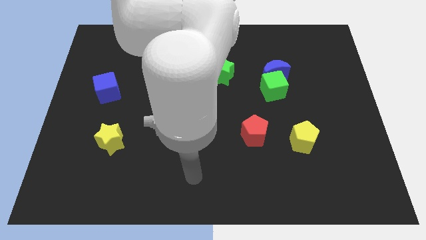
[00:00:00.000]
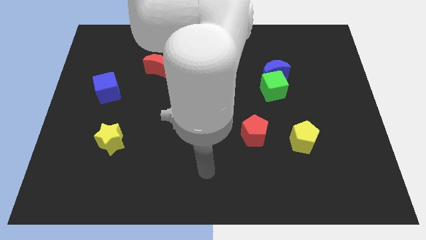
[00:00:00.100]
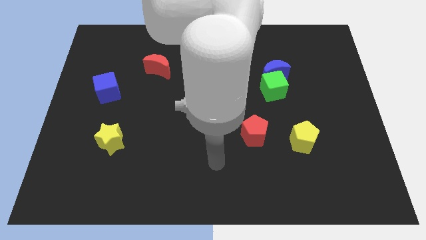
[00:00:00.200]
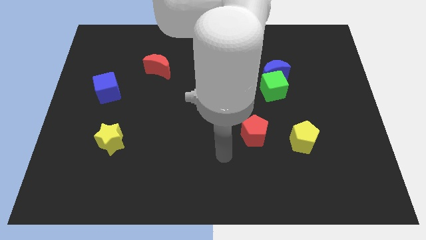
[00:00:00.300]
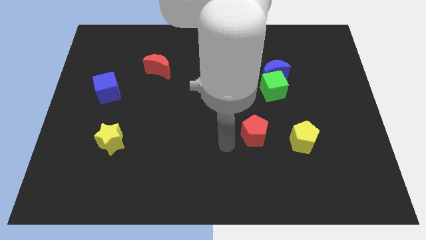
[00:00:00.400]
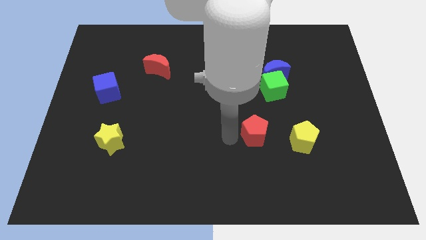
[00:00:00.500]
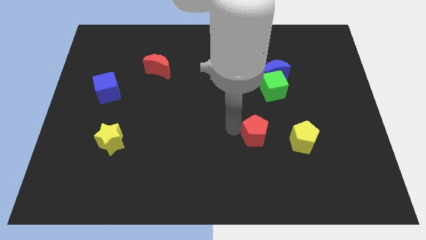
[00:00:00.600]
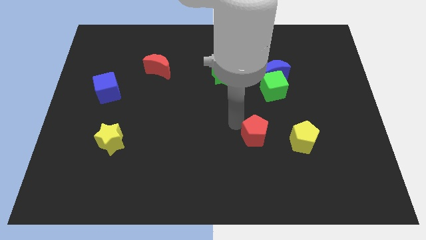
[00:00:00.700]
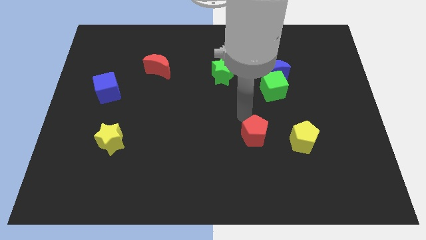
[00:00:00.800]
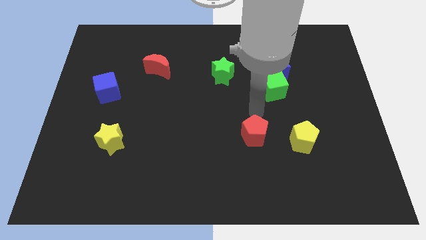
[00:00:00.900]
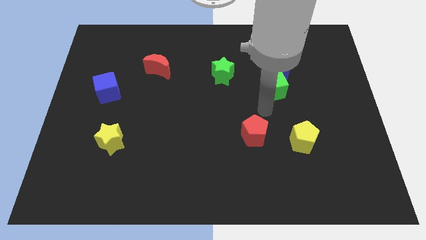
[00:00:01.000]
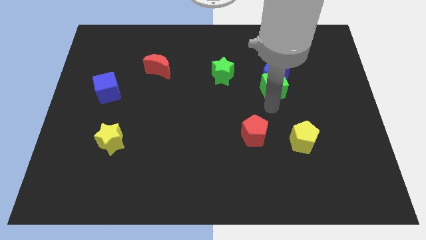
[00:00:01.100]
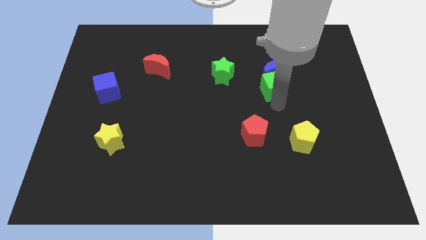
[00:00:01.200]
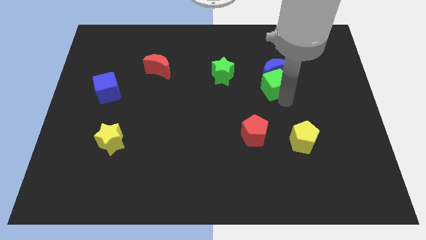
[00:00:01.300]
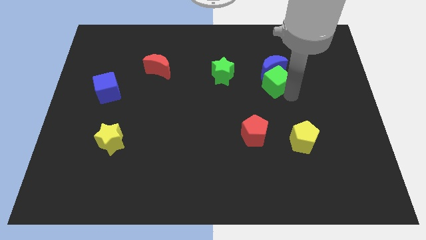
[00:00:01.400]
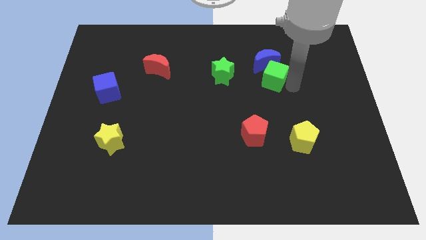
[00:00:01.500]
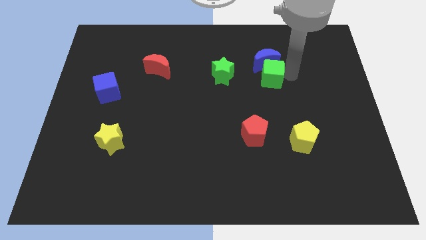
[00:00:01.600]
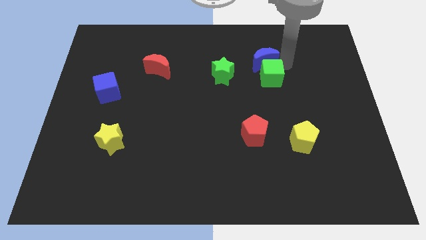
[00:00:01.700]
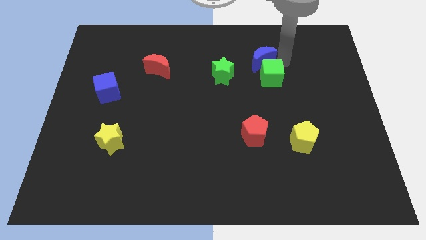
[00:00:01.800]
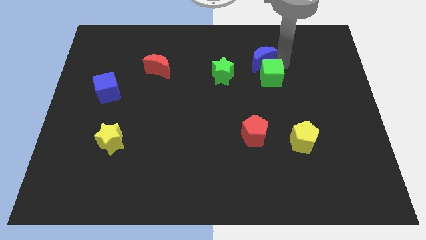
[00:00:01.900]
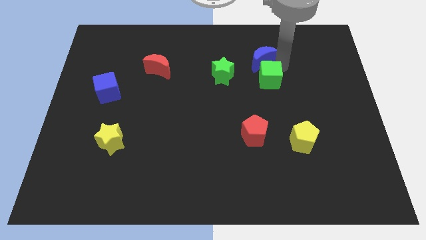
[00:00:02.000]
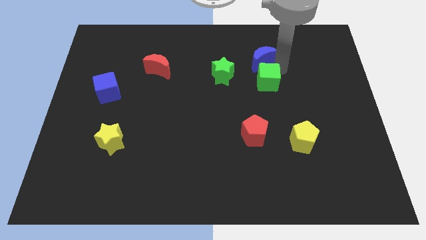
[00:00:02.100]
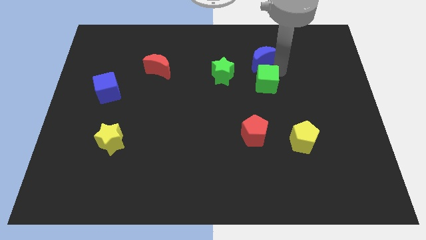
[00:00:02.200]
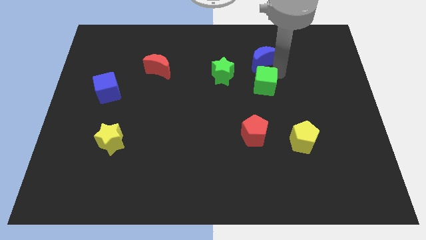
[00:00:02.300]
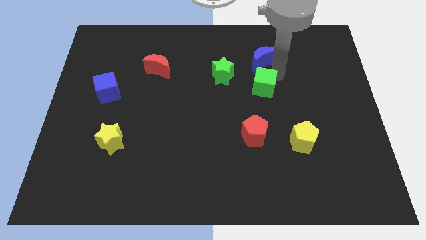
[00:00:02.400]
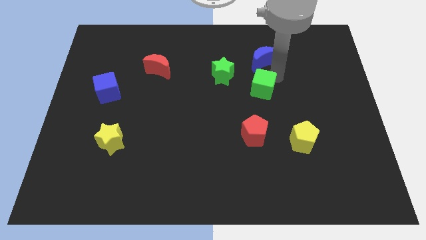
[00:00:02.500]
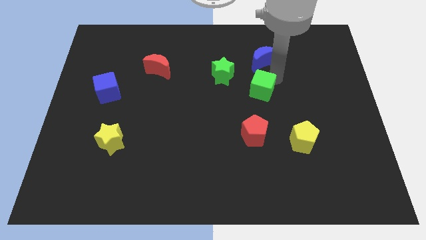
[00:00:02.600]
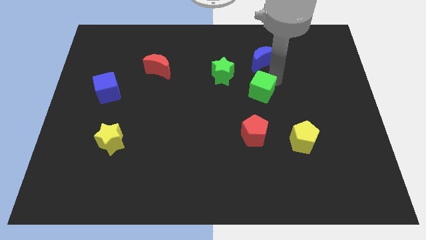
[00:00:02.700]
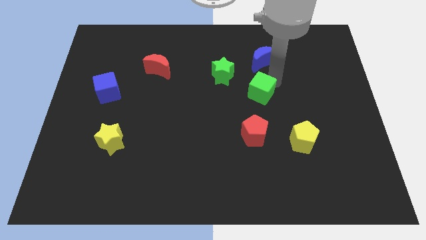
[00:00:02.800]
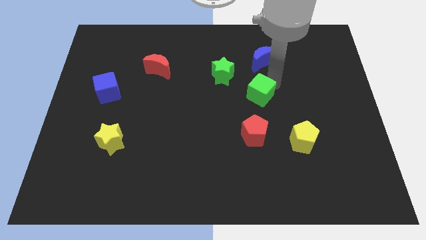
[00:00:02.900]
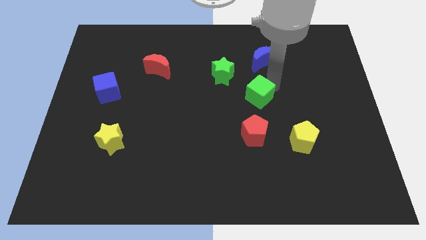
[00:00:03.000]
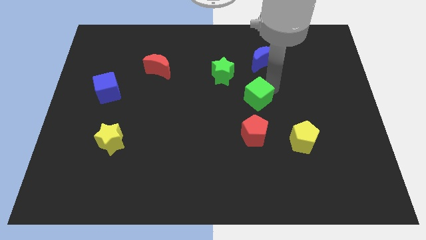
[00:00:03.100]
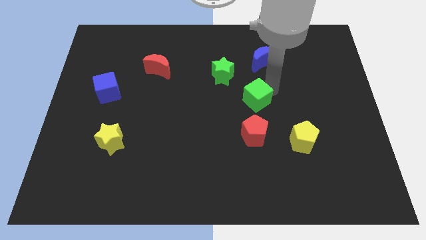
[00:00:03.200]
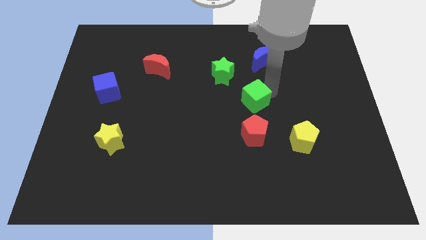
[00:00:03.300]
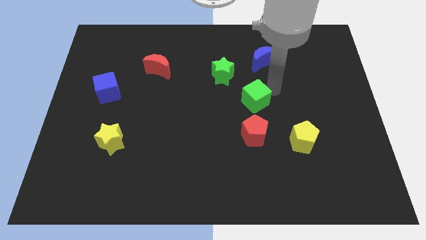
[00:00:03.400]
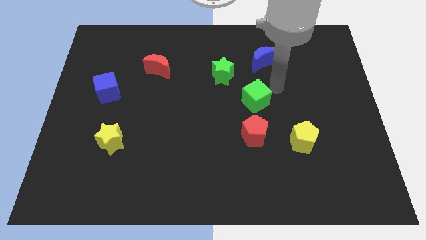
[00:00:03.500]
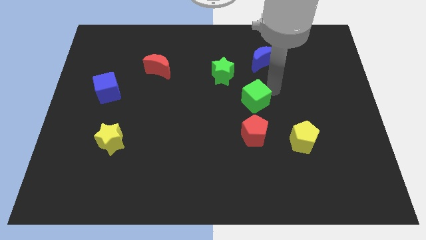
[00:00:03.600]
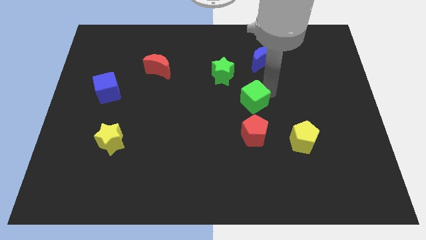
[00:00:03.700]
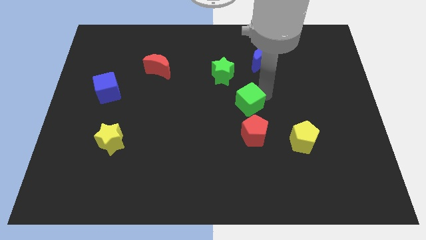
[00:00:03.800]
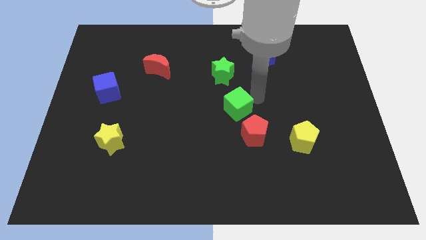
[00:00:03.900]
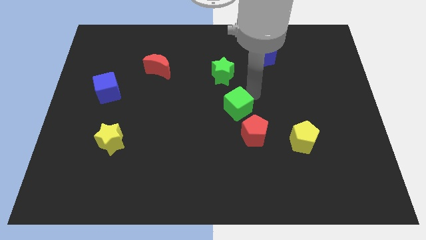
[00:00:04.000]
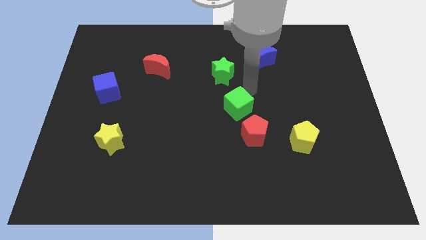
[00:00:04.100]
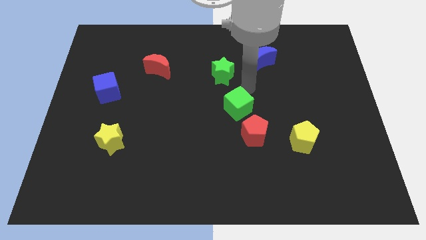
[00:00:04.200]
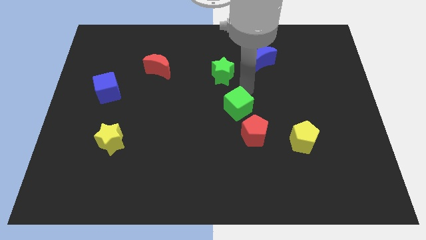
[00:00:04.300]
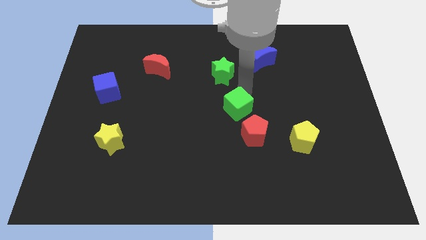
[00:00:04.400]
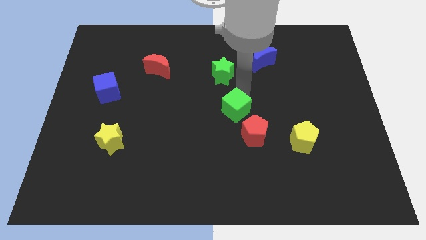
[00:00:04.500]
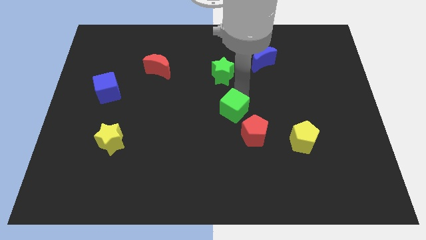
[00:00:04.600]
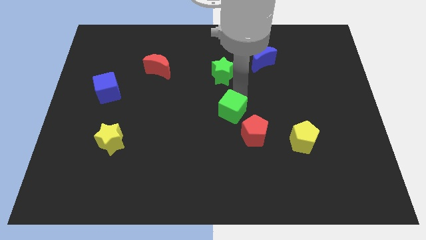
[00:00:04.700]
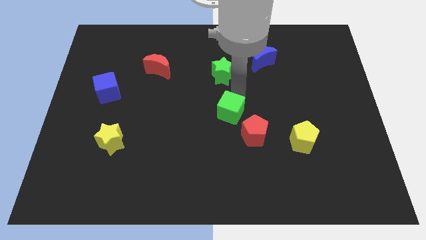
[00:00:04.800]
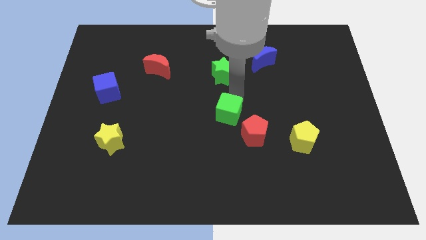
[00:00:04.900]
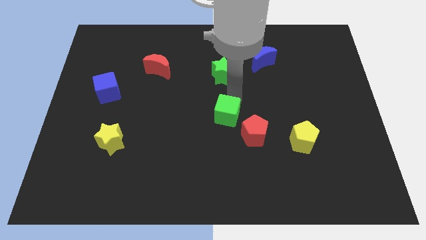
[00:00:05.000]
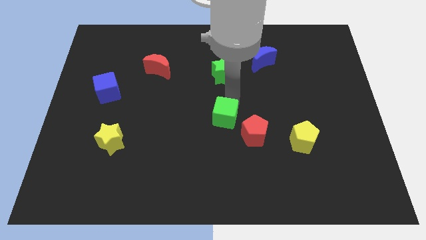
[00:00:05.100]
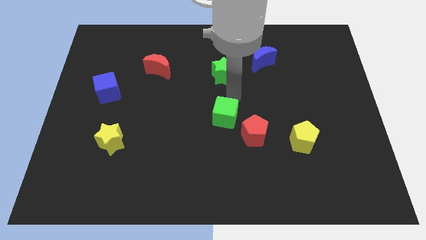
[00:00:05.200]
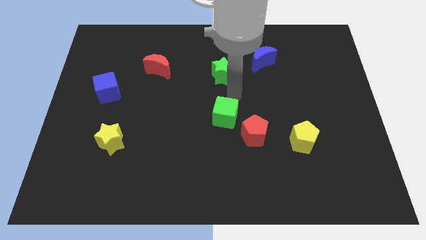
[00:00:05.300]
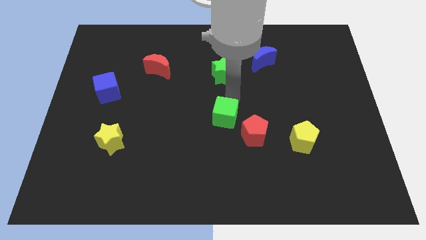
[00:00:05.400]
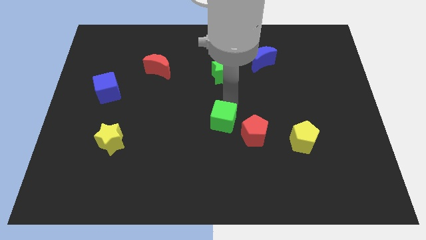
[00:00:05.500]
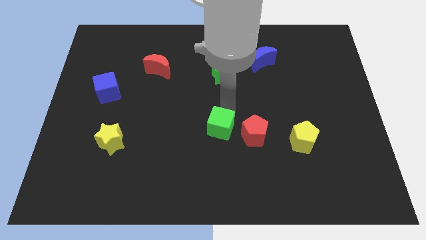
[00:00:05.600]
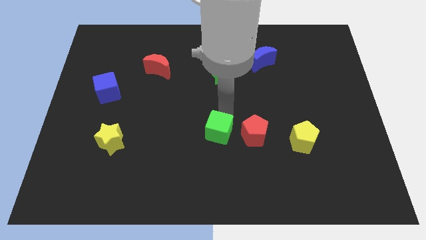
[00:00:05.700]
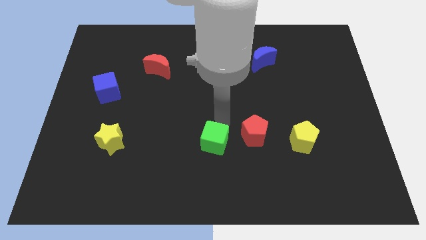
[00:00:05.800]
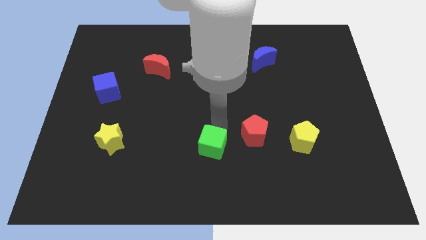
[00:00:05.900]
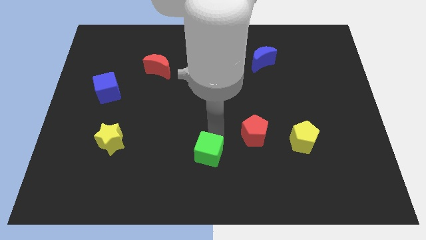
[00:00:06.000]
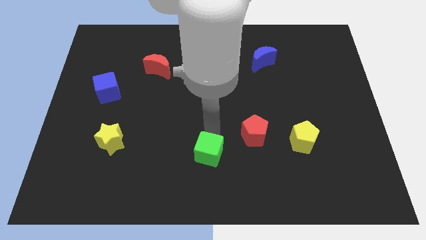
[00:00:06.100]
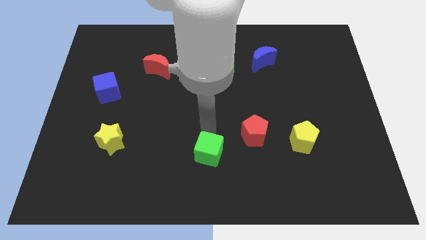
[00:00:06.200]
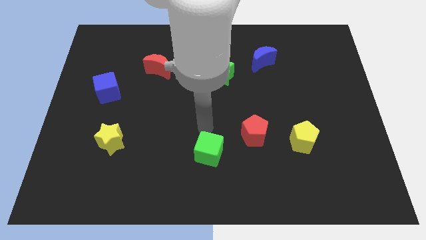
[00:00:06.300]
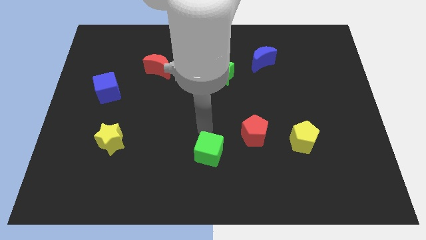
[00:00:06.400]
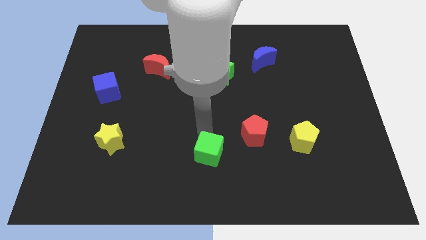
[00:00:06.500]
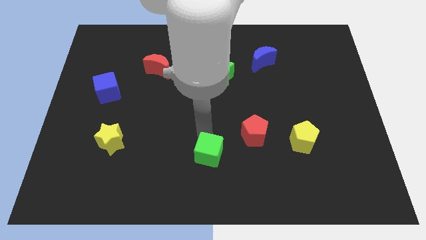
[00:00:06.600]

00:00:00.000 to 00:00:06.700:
put the green cube to the bottom side
